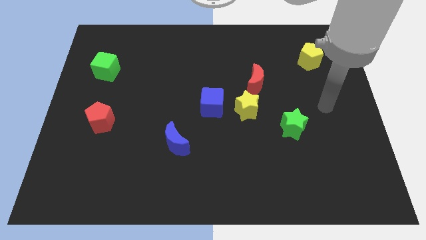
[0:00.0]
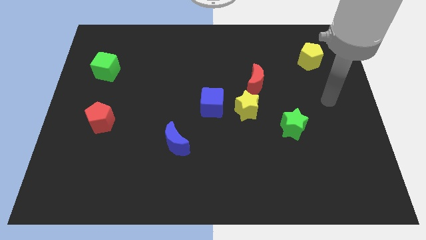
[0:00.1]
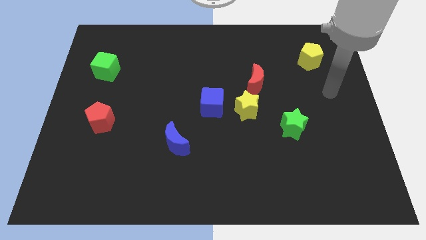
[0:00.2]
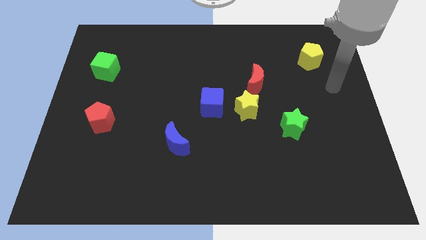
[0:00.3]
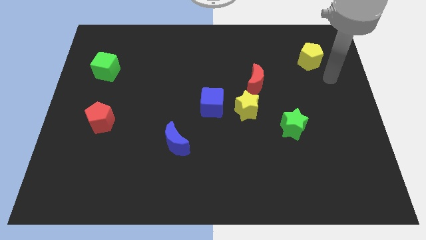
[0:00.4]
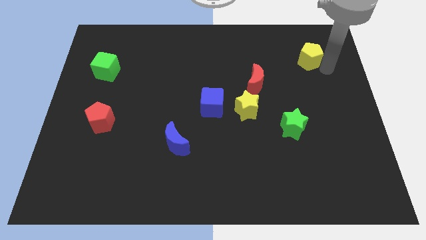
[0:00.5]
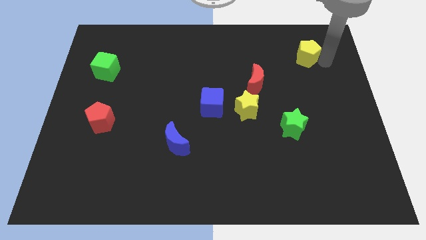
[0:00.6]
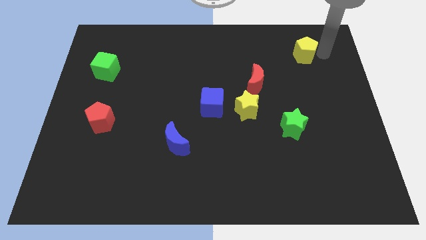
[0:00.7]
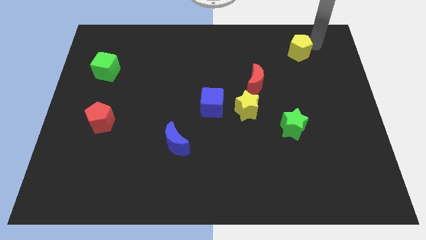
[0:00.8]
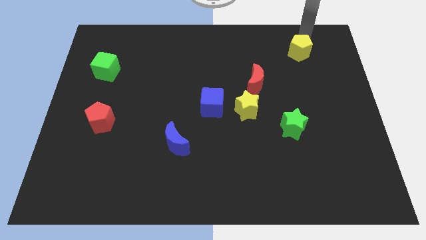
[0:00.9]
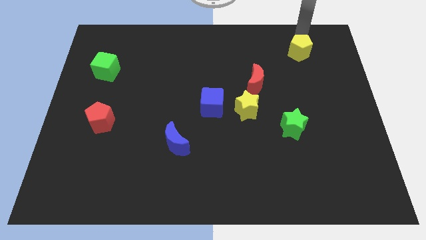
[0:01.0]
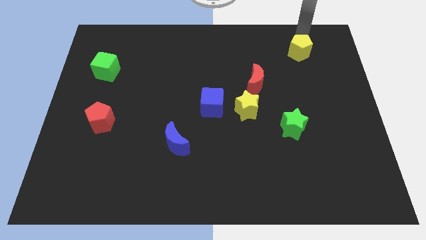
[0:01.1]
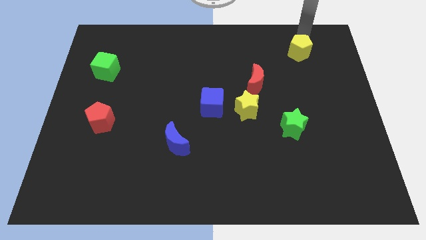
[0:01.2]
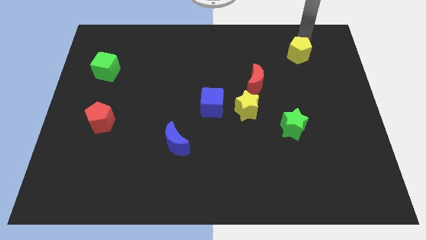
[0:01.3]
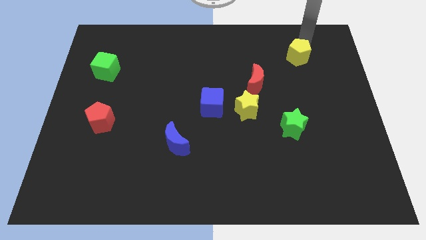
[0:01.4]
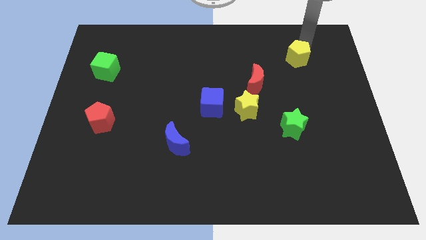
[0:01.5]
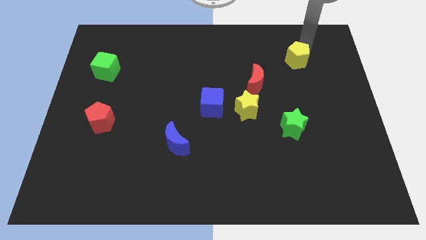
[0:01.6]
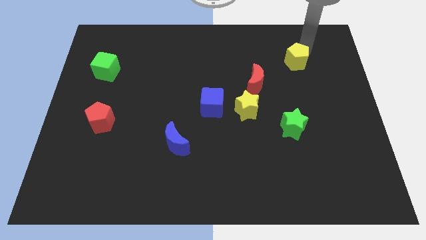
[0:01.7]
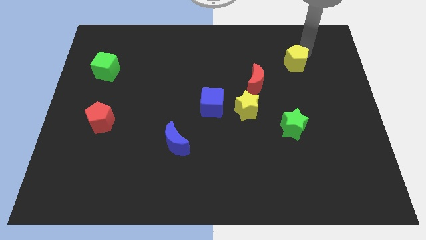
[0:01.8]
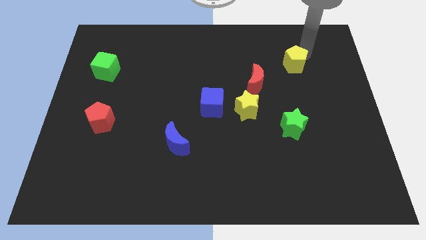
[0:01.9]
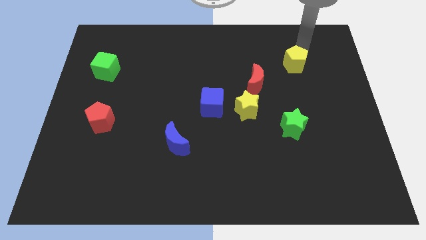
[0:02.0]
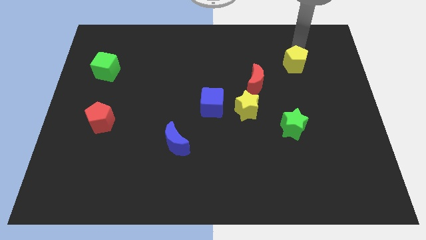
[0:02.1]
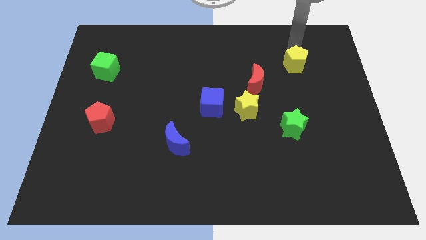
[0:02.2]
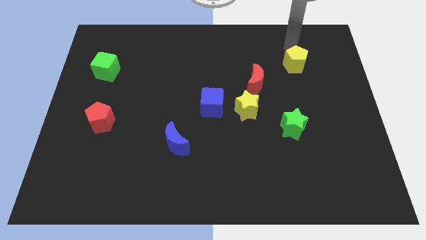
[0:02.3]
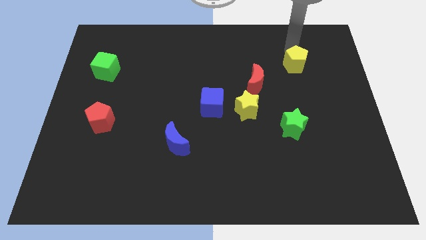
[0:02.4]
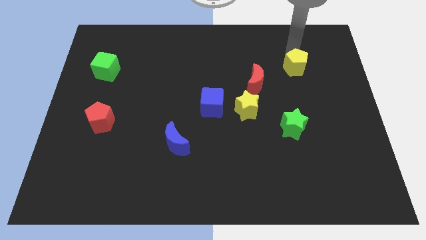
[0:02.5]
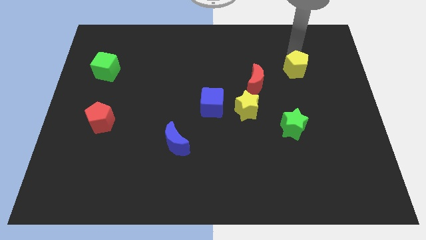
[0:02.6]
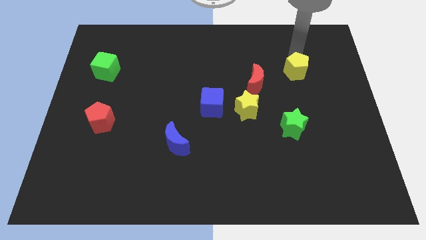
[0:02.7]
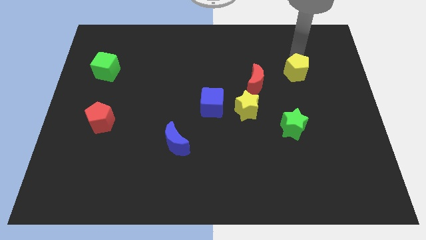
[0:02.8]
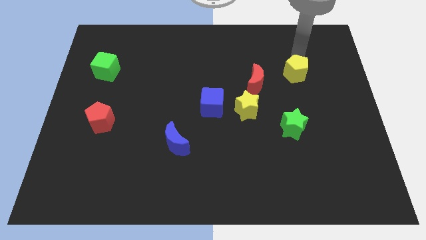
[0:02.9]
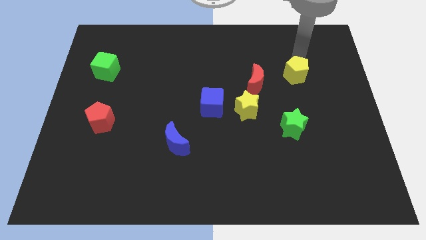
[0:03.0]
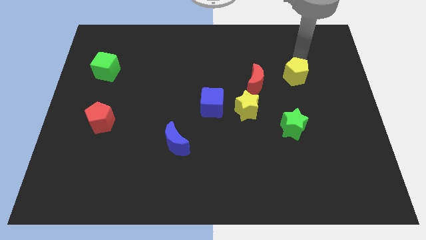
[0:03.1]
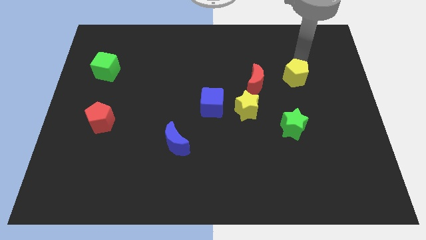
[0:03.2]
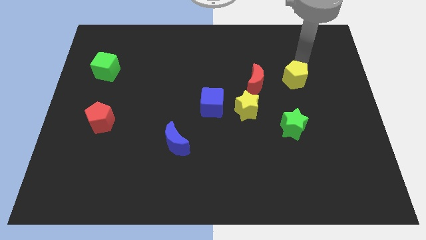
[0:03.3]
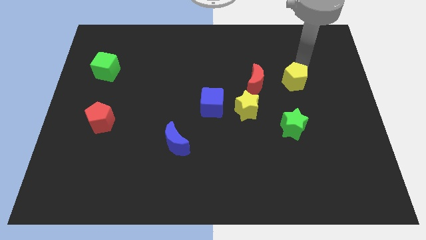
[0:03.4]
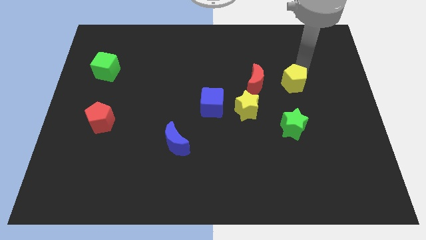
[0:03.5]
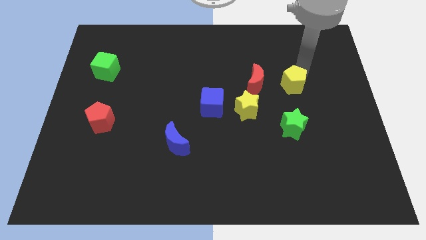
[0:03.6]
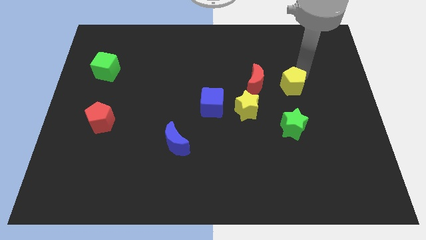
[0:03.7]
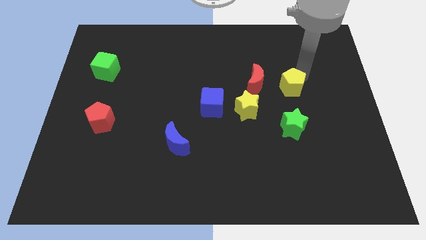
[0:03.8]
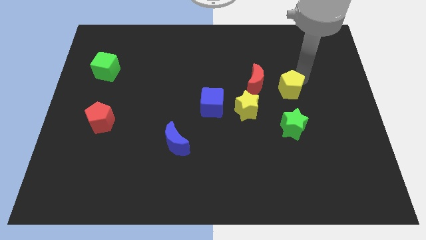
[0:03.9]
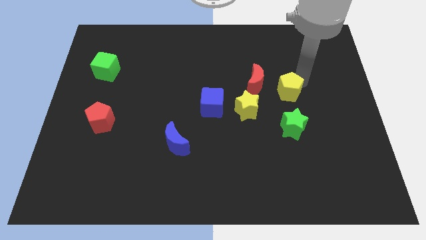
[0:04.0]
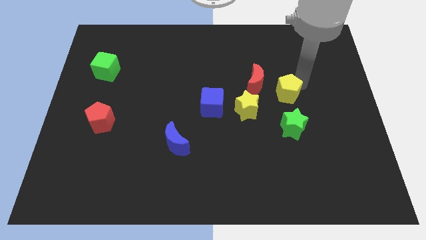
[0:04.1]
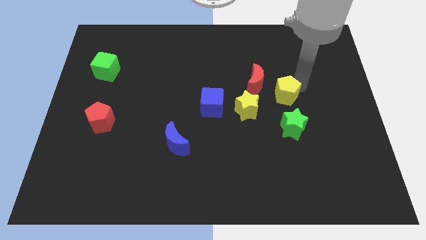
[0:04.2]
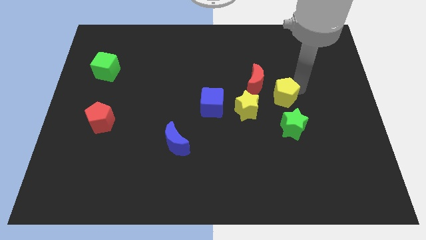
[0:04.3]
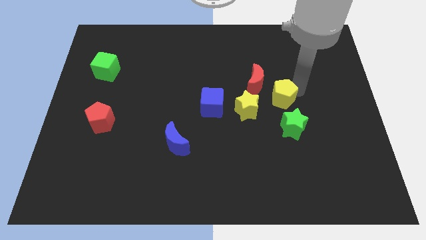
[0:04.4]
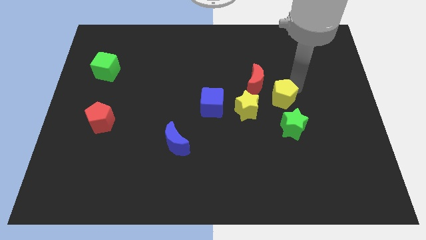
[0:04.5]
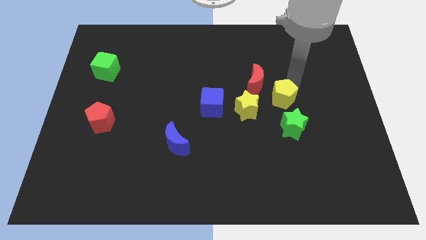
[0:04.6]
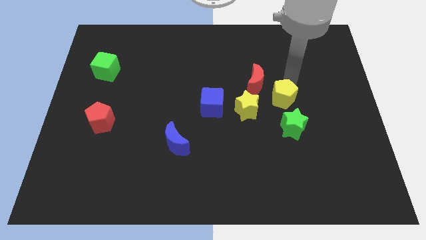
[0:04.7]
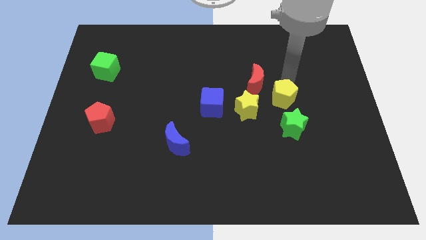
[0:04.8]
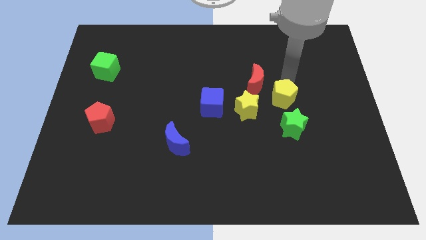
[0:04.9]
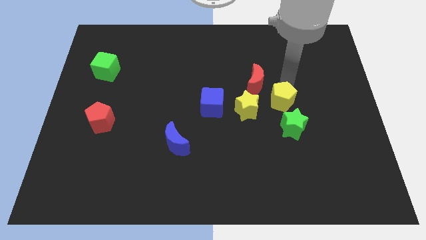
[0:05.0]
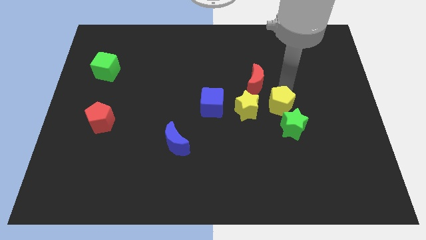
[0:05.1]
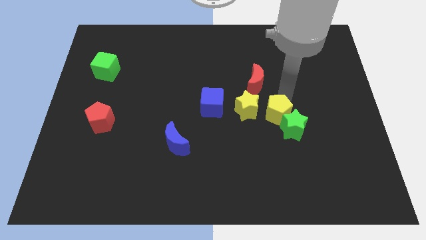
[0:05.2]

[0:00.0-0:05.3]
put the yellow pentagon to the left side of the green star

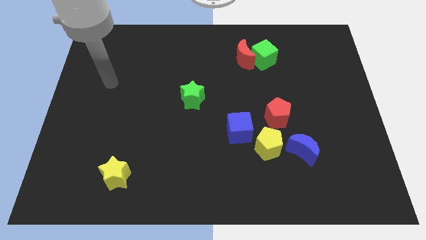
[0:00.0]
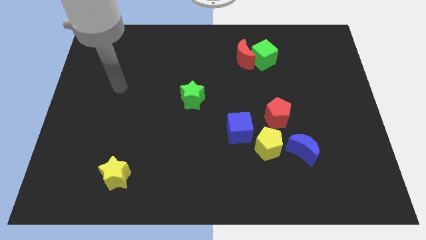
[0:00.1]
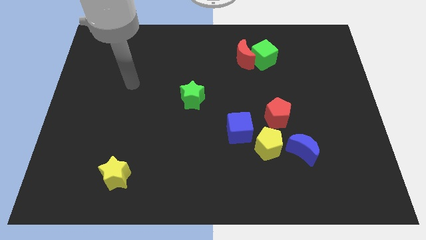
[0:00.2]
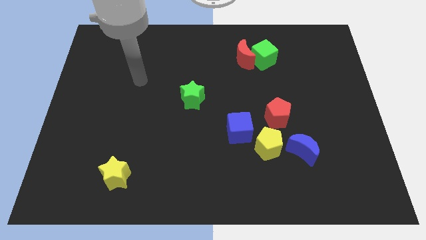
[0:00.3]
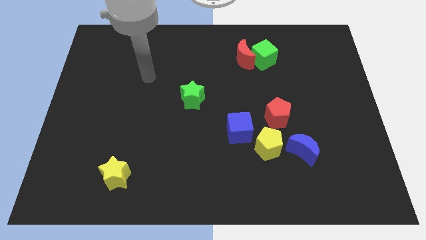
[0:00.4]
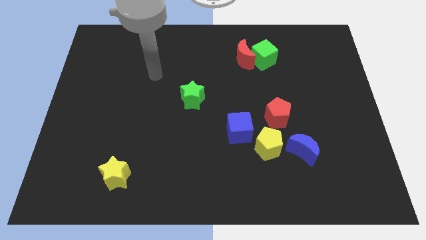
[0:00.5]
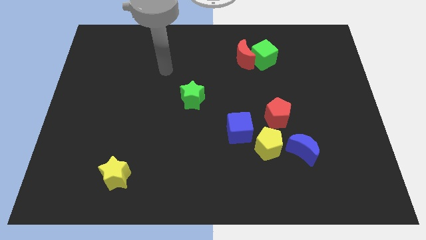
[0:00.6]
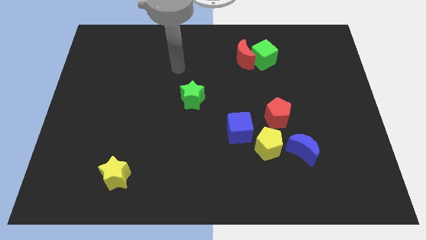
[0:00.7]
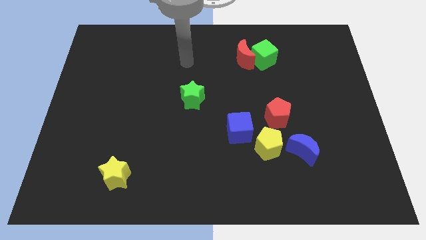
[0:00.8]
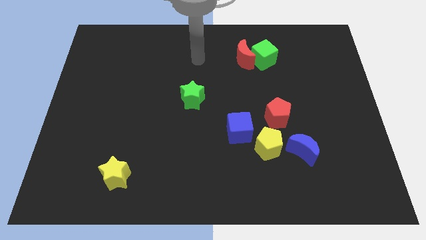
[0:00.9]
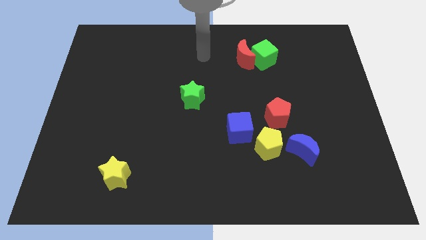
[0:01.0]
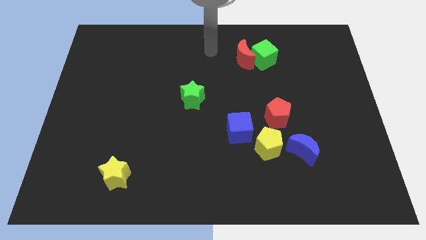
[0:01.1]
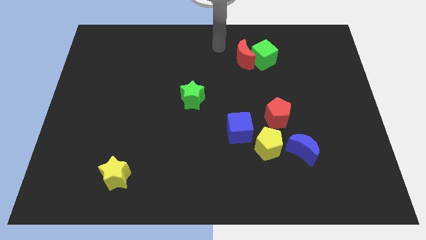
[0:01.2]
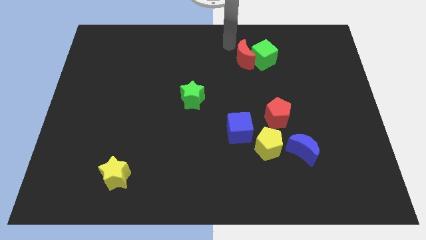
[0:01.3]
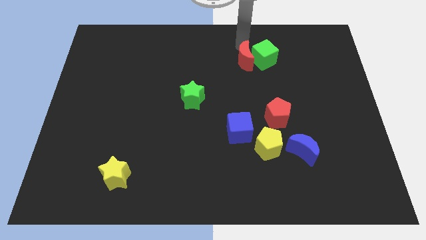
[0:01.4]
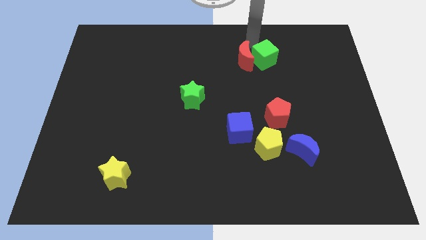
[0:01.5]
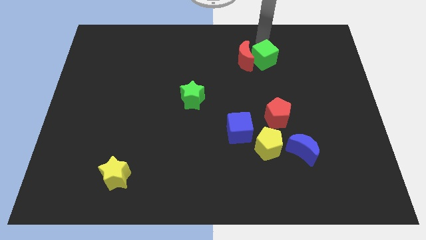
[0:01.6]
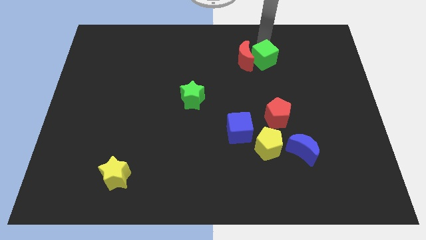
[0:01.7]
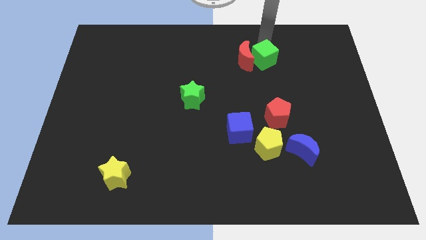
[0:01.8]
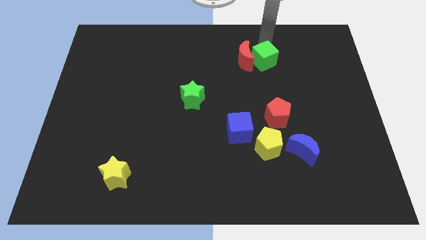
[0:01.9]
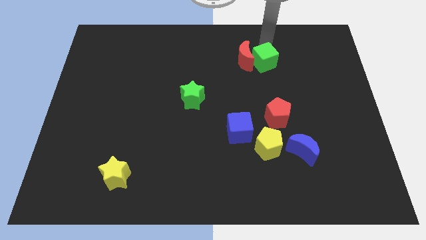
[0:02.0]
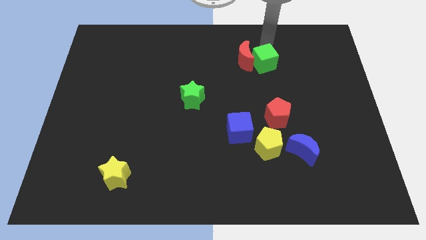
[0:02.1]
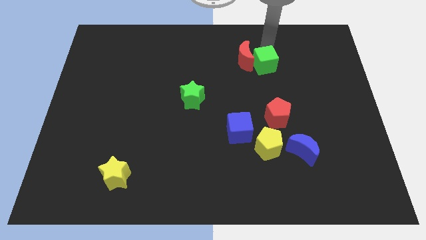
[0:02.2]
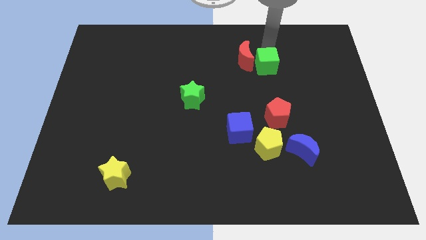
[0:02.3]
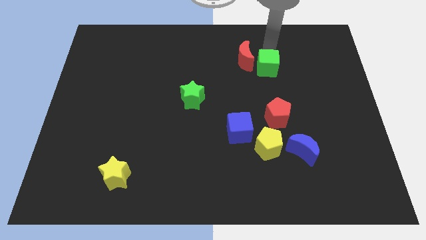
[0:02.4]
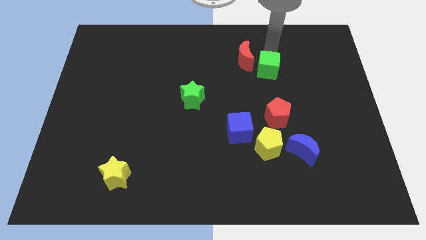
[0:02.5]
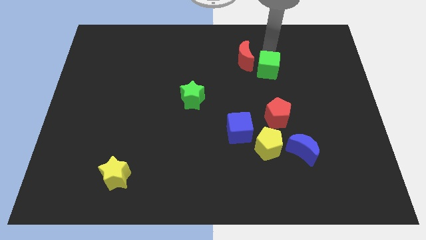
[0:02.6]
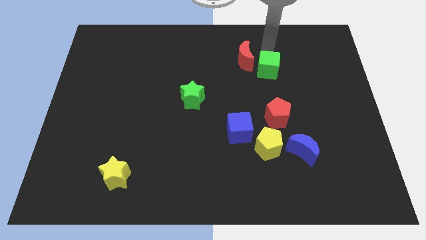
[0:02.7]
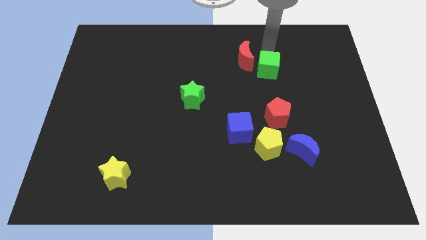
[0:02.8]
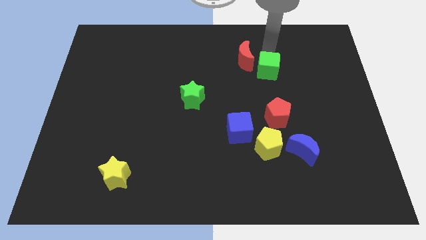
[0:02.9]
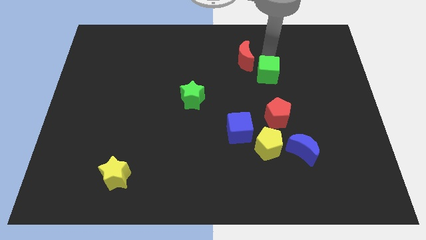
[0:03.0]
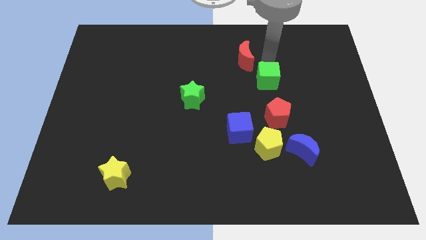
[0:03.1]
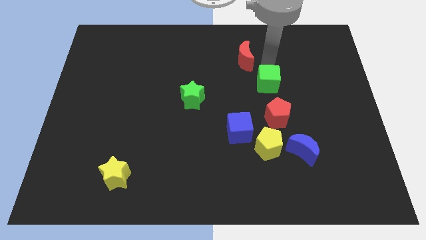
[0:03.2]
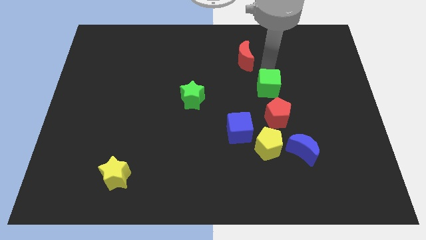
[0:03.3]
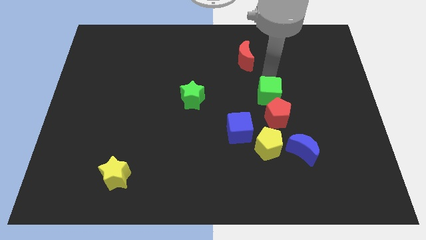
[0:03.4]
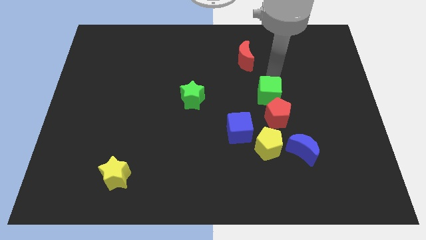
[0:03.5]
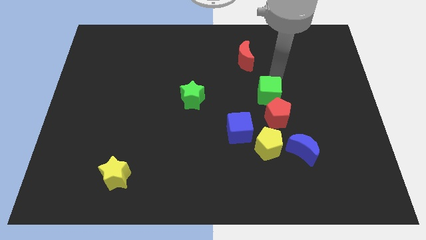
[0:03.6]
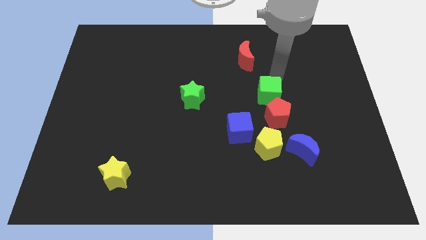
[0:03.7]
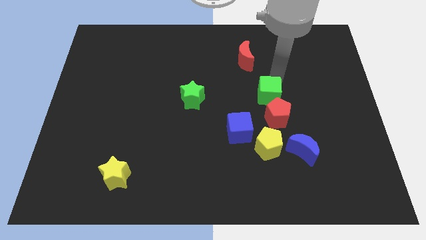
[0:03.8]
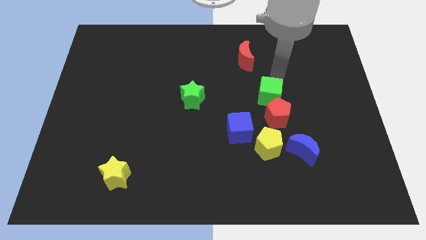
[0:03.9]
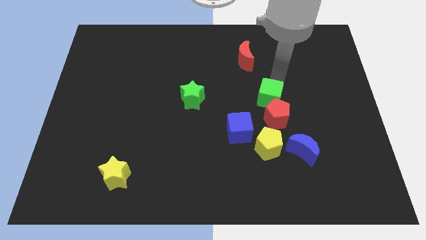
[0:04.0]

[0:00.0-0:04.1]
push the green cube diagonally up and to the right of the blue cube
